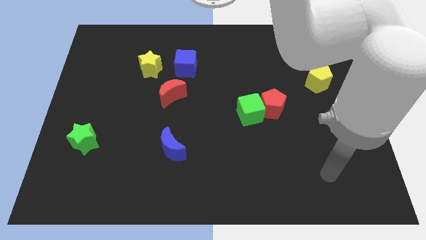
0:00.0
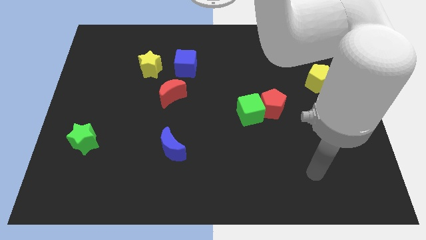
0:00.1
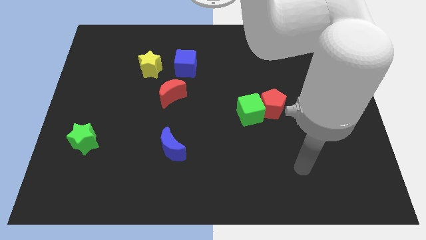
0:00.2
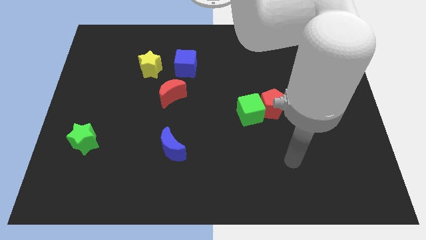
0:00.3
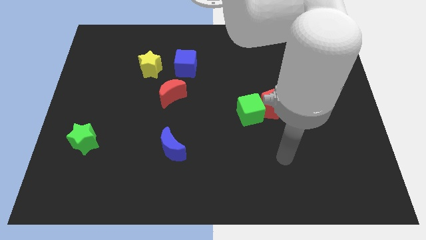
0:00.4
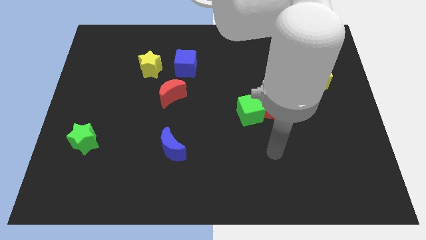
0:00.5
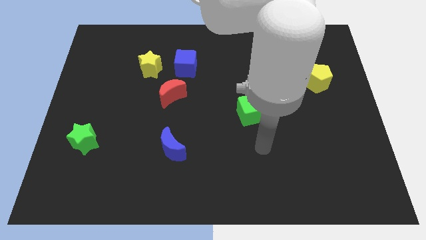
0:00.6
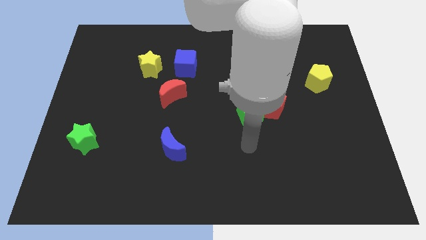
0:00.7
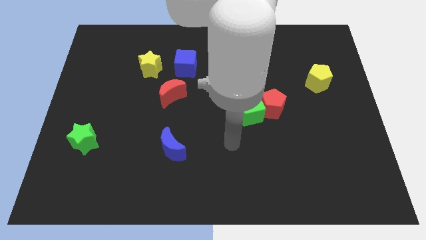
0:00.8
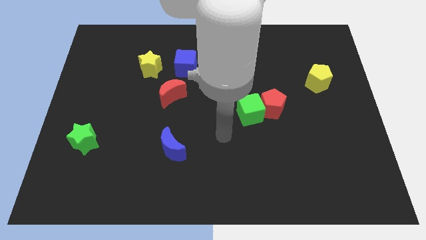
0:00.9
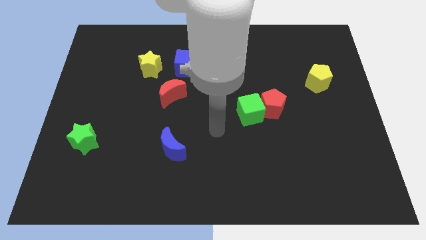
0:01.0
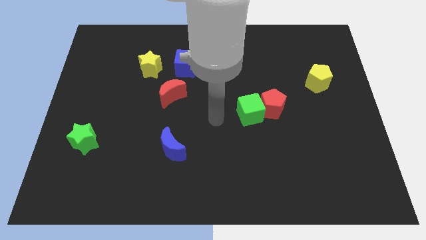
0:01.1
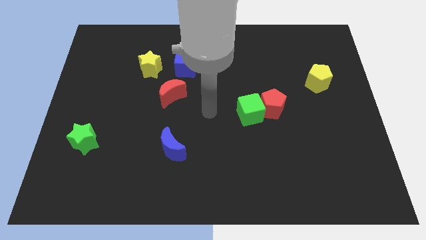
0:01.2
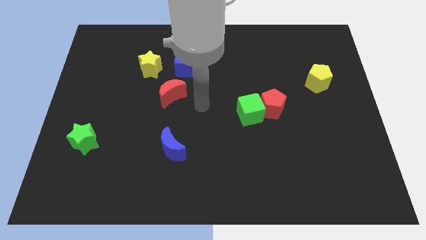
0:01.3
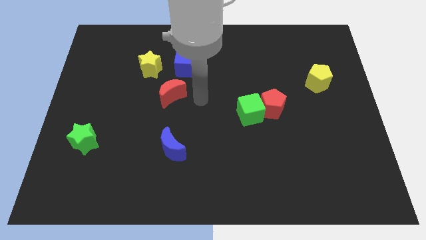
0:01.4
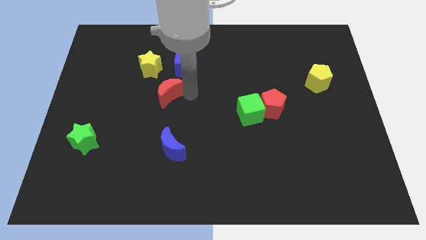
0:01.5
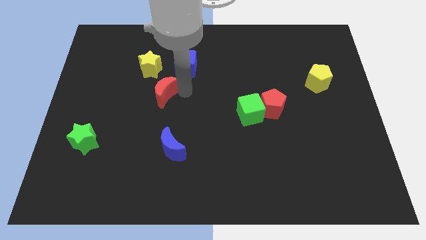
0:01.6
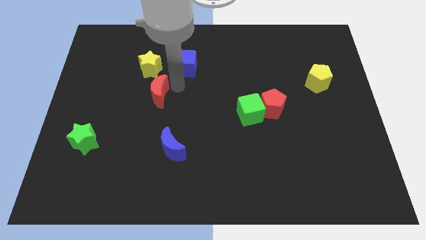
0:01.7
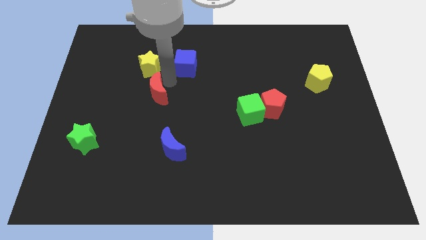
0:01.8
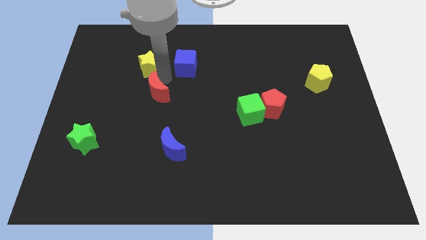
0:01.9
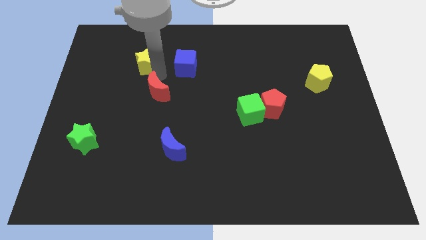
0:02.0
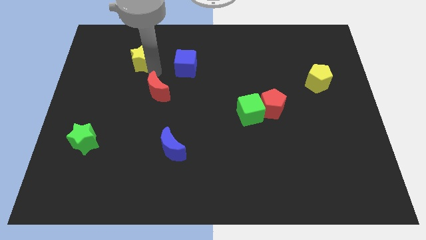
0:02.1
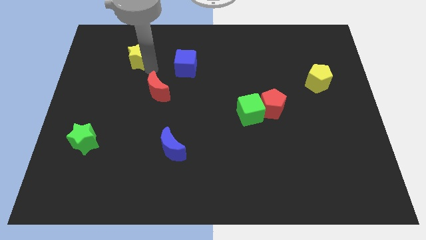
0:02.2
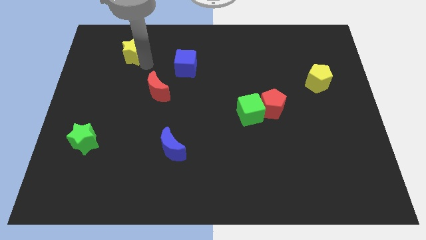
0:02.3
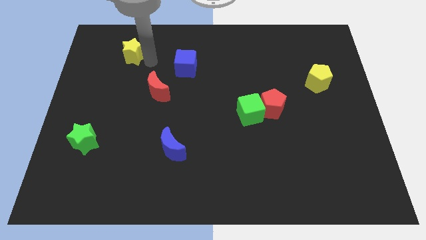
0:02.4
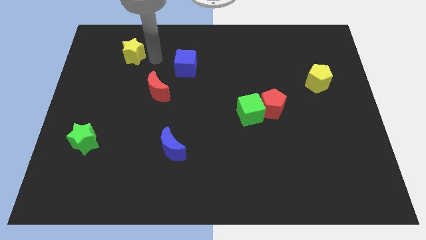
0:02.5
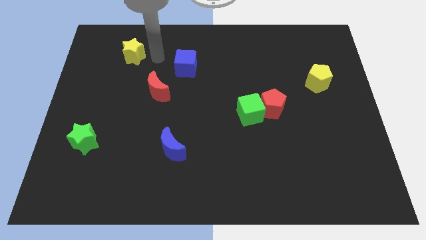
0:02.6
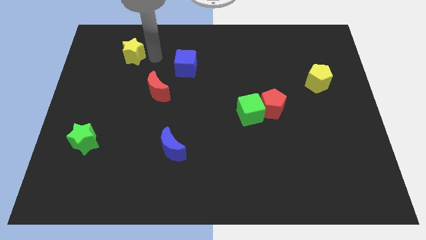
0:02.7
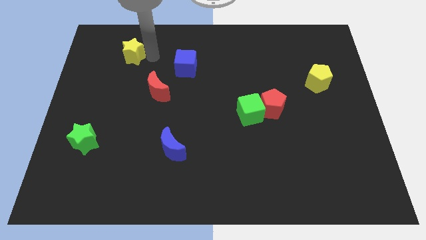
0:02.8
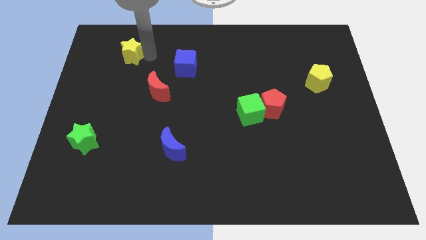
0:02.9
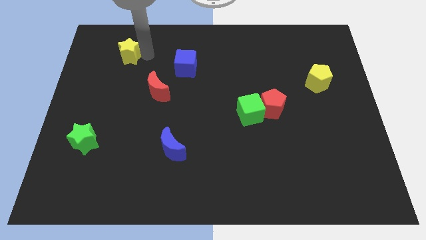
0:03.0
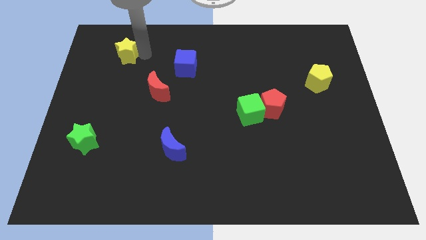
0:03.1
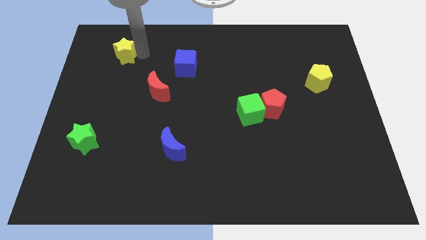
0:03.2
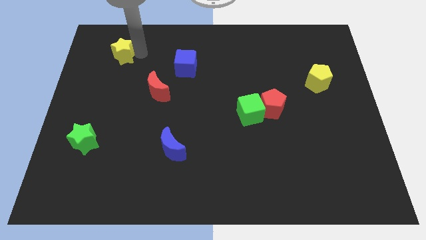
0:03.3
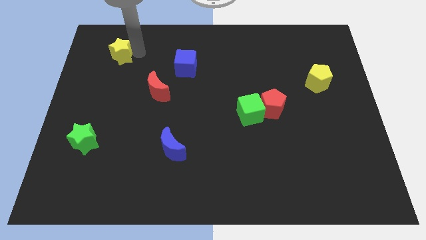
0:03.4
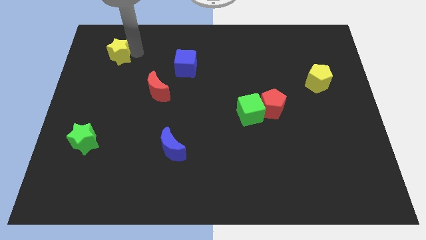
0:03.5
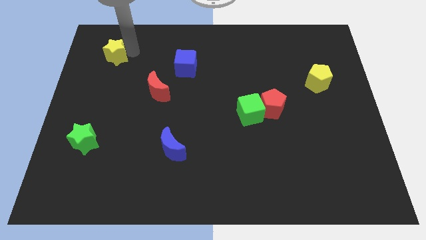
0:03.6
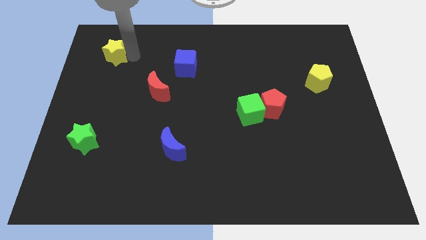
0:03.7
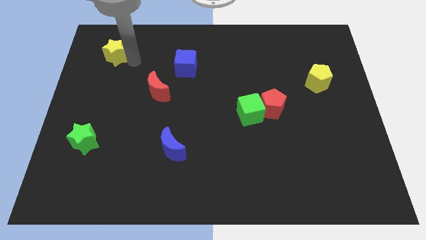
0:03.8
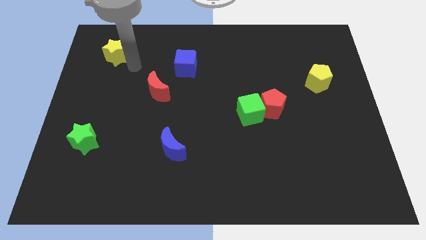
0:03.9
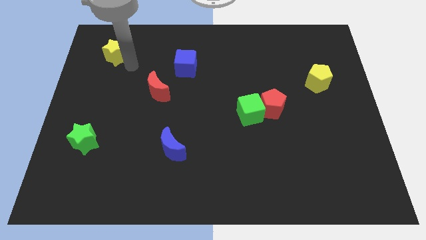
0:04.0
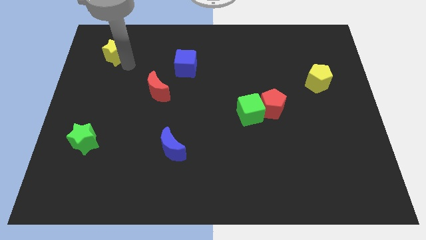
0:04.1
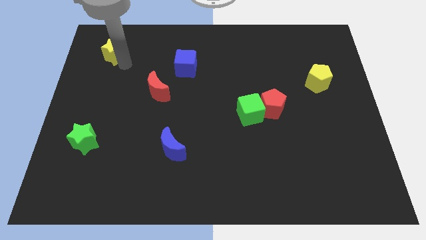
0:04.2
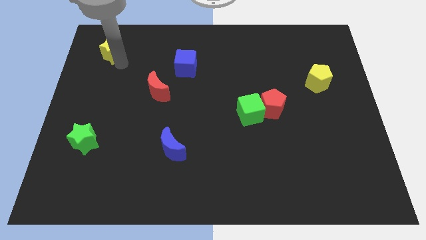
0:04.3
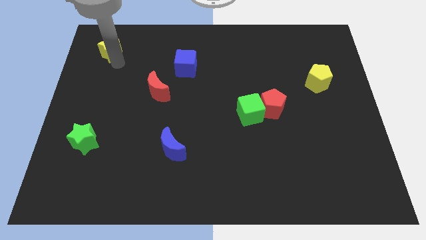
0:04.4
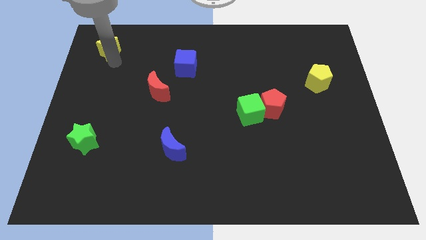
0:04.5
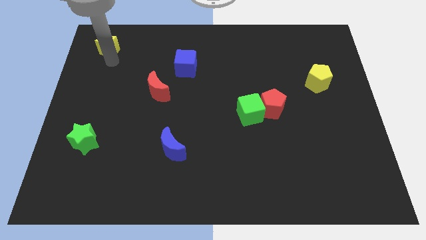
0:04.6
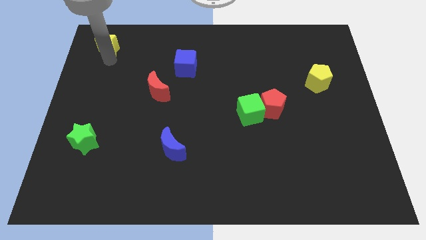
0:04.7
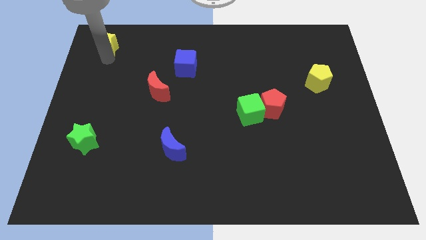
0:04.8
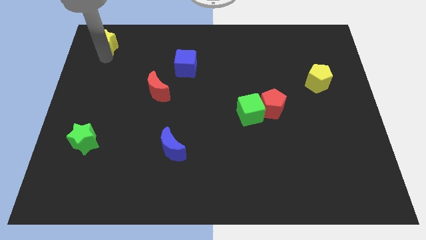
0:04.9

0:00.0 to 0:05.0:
put the yellow star to the top left

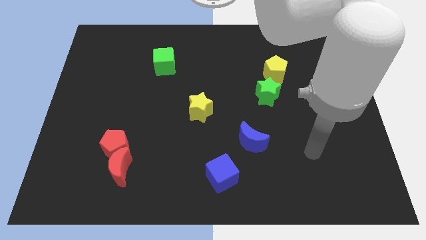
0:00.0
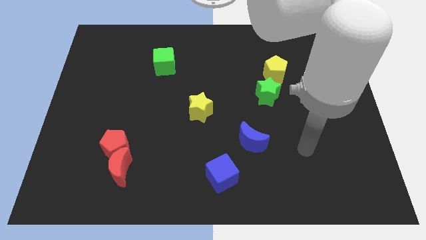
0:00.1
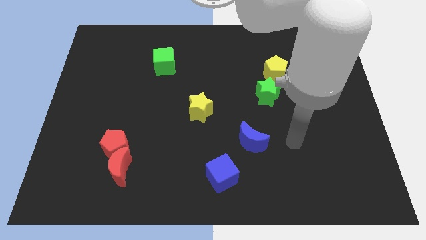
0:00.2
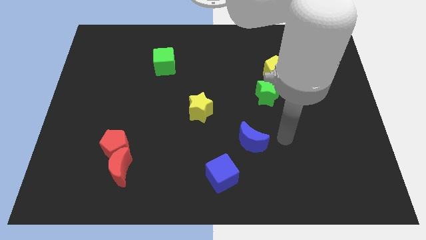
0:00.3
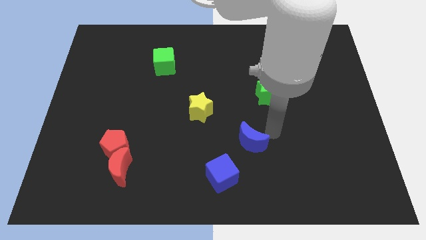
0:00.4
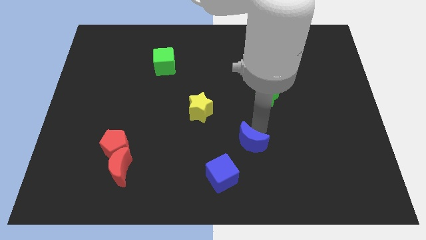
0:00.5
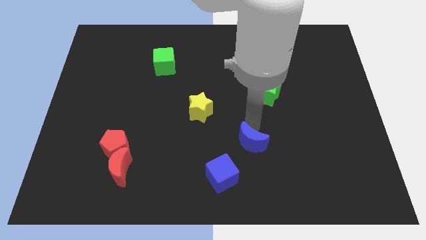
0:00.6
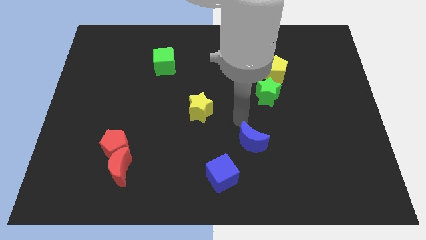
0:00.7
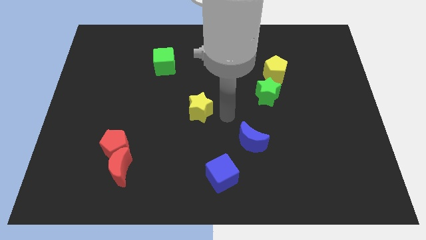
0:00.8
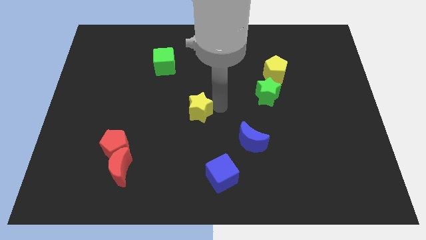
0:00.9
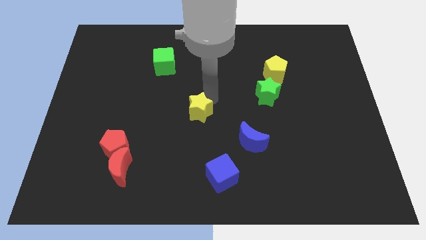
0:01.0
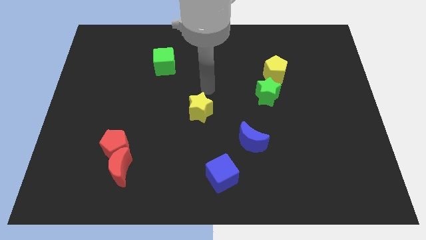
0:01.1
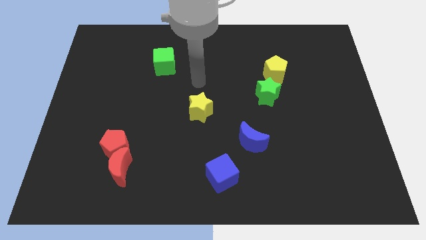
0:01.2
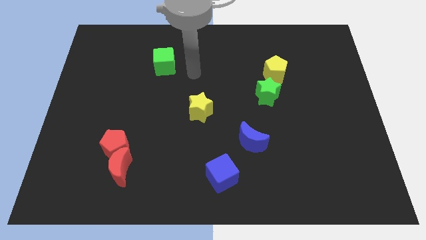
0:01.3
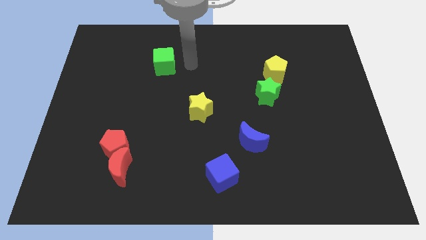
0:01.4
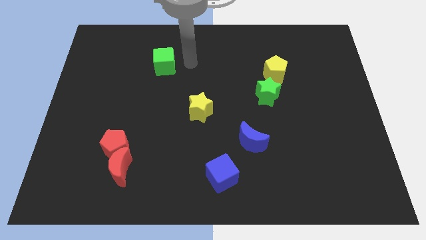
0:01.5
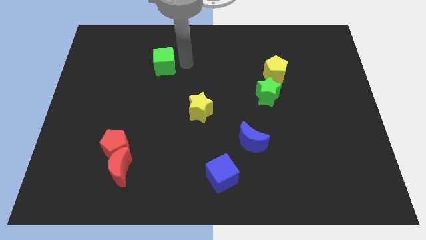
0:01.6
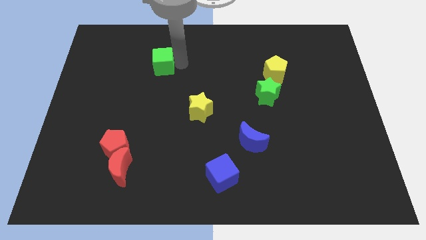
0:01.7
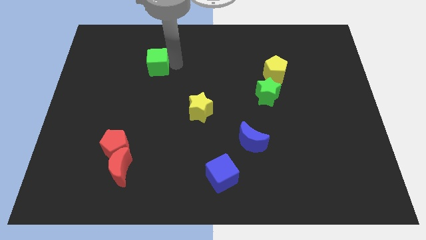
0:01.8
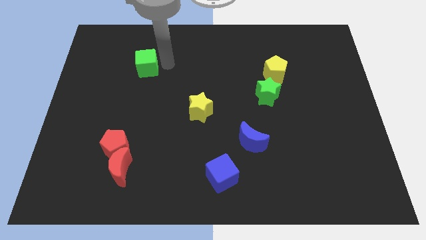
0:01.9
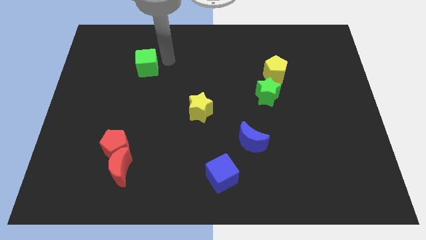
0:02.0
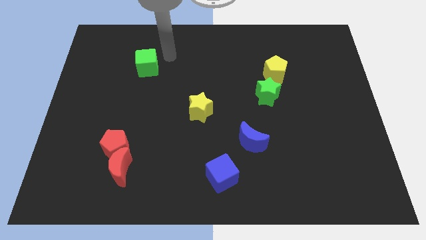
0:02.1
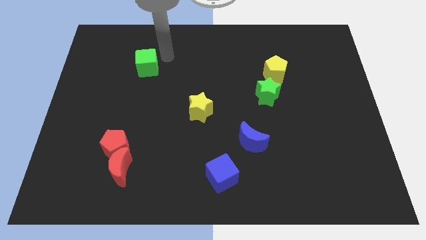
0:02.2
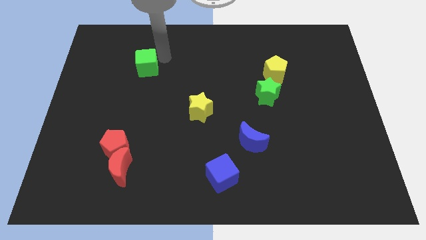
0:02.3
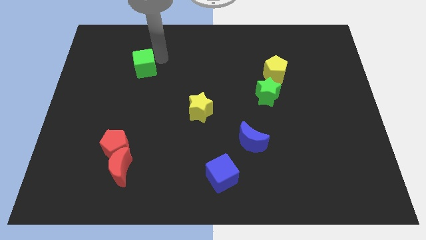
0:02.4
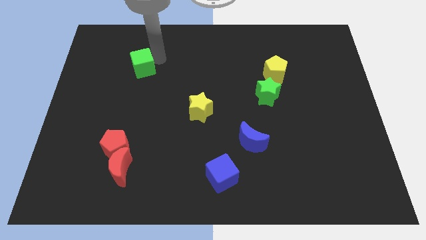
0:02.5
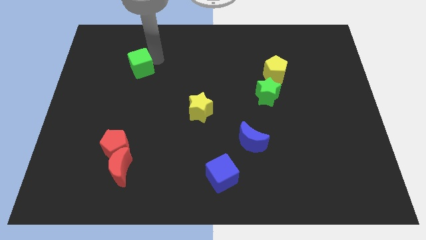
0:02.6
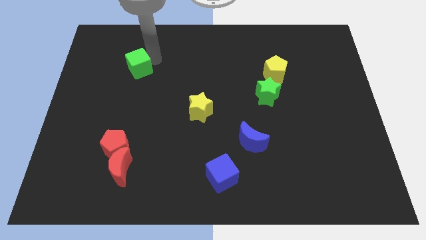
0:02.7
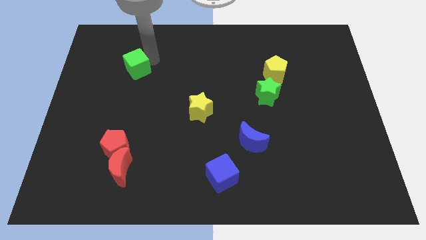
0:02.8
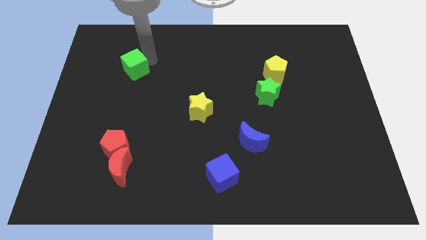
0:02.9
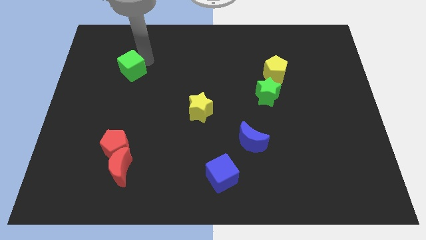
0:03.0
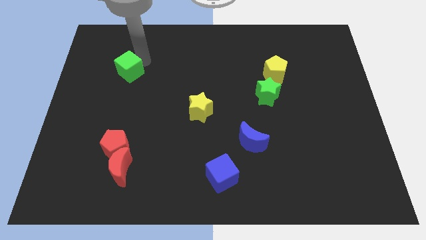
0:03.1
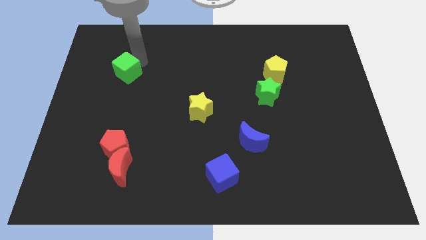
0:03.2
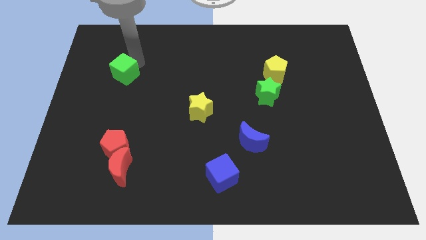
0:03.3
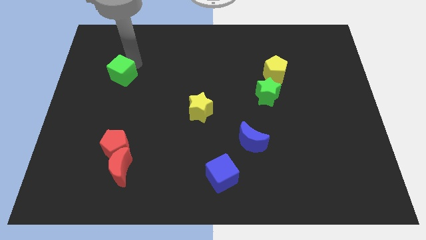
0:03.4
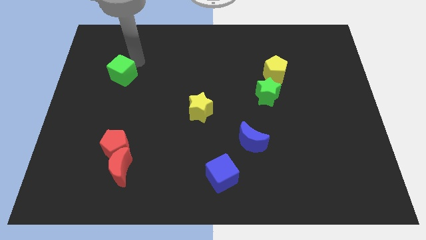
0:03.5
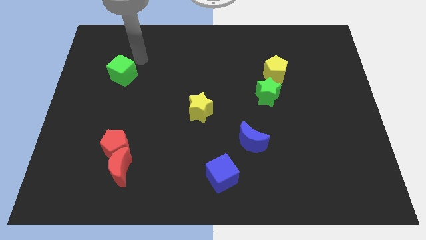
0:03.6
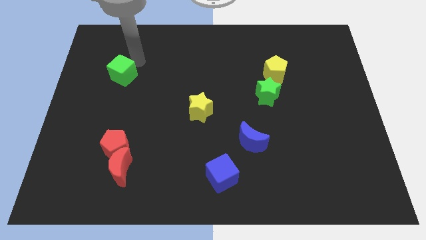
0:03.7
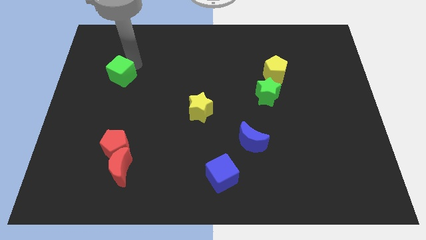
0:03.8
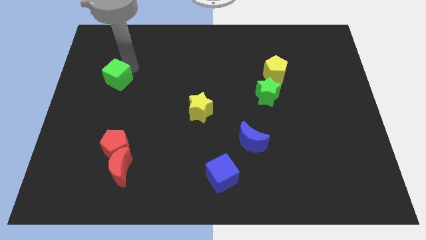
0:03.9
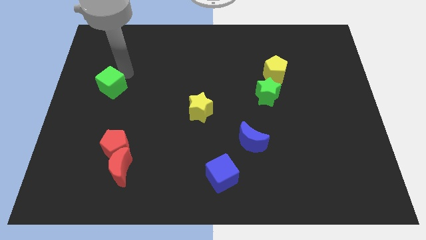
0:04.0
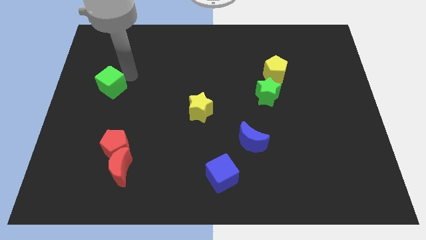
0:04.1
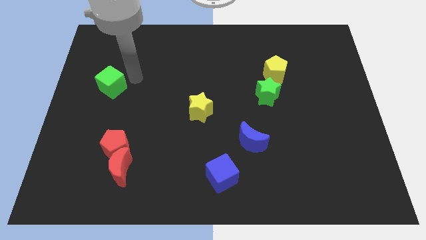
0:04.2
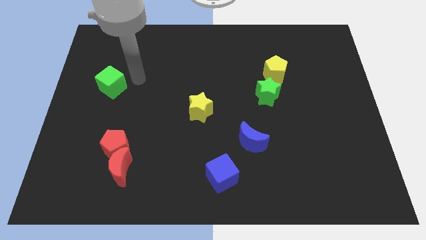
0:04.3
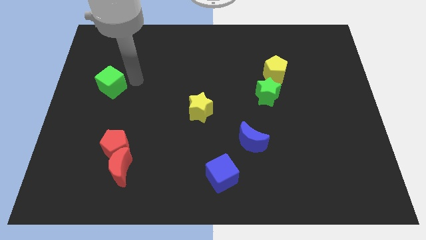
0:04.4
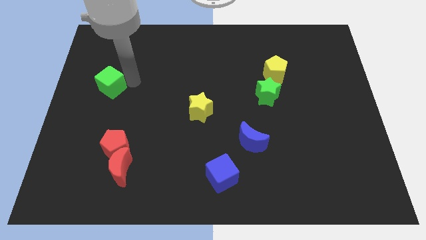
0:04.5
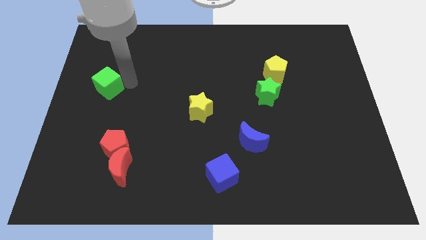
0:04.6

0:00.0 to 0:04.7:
put the green cube to the left side of the board
